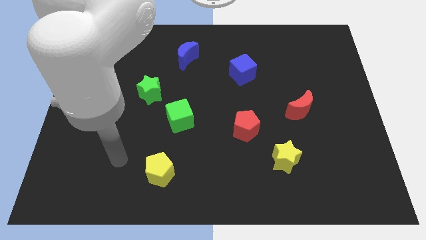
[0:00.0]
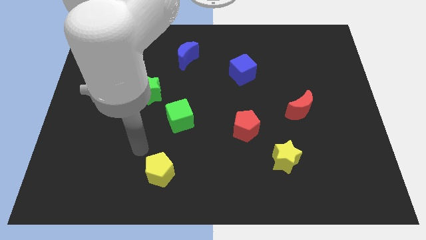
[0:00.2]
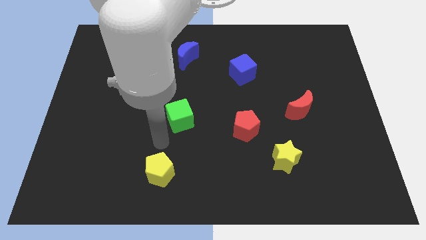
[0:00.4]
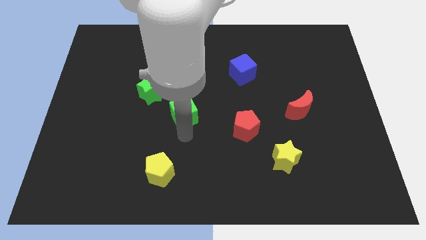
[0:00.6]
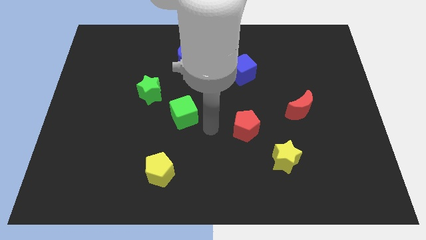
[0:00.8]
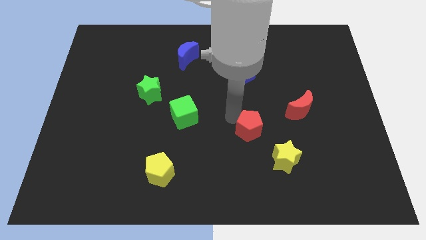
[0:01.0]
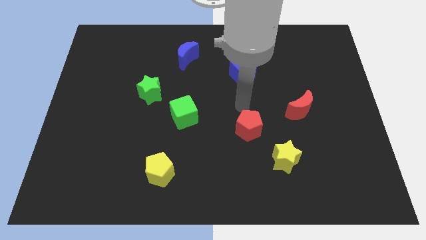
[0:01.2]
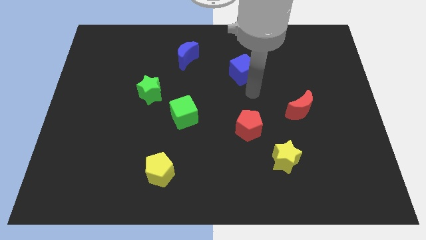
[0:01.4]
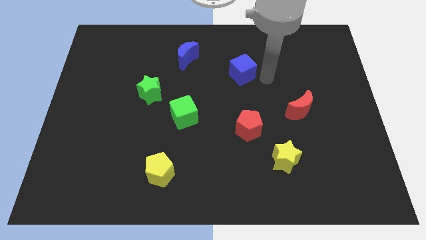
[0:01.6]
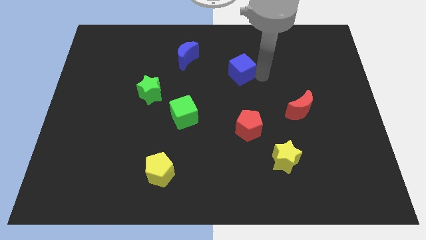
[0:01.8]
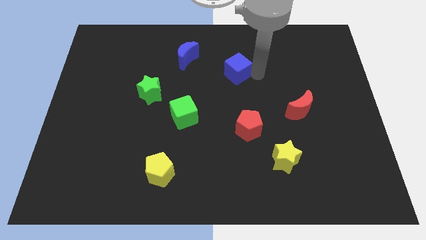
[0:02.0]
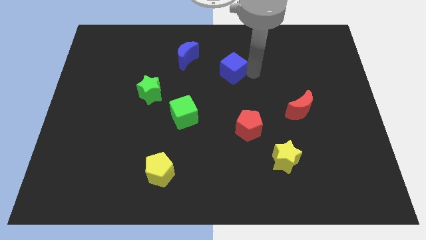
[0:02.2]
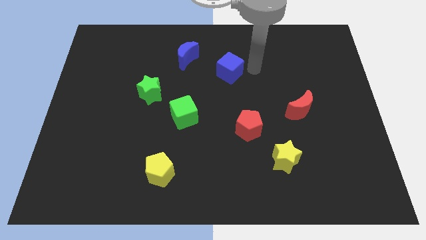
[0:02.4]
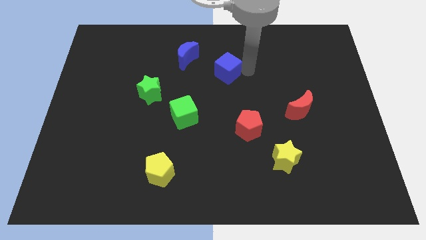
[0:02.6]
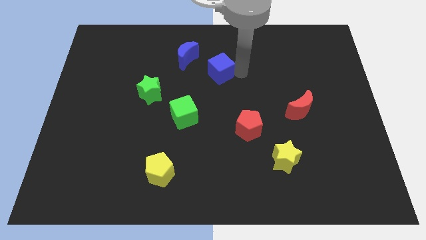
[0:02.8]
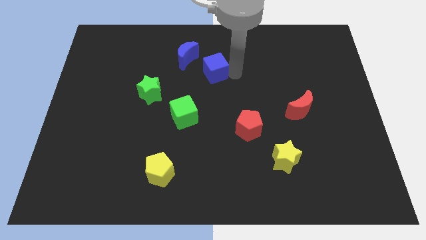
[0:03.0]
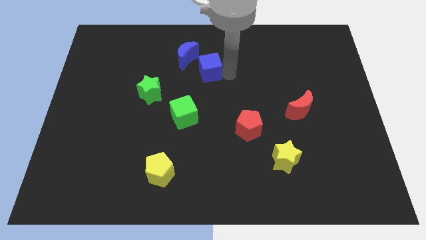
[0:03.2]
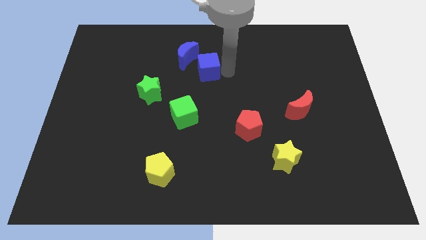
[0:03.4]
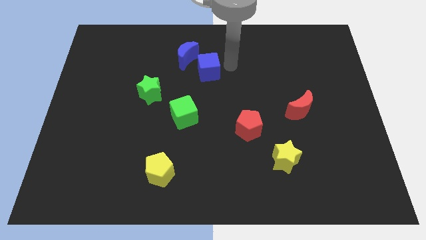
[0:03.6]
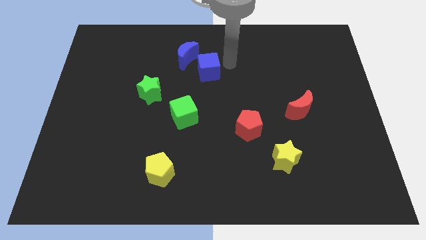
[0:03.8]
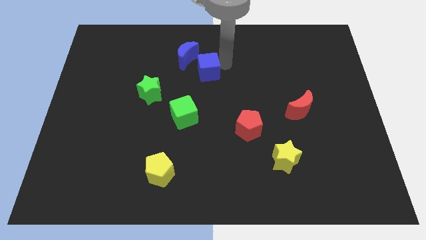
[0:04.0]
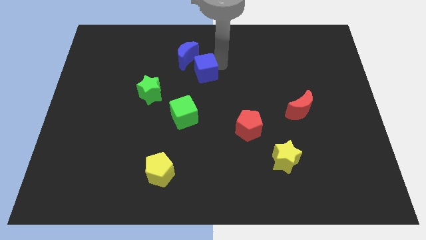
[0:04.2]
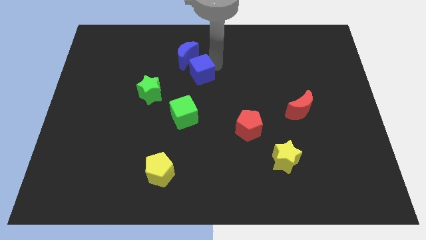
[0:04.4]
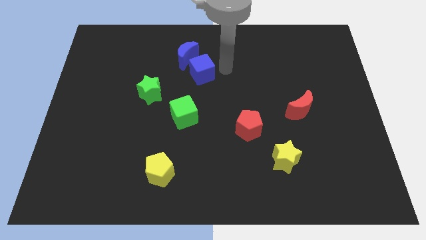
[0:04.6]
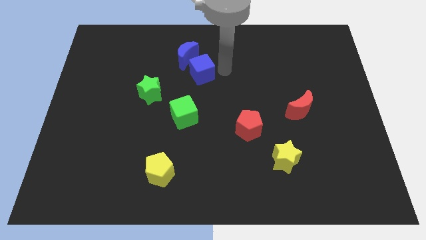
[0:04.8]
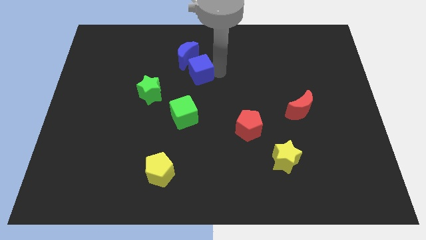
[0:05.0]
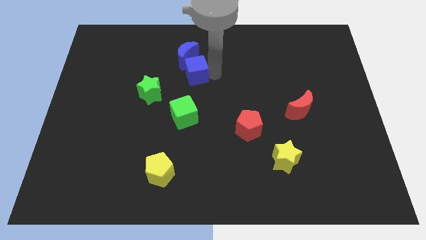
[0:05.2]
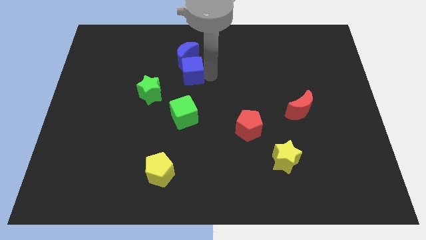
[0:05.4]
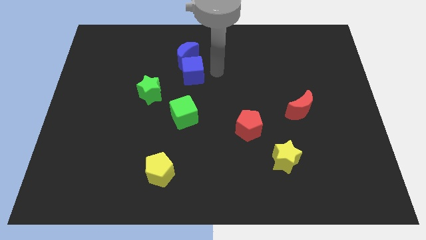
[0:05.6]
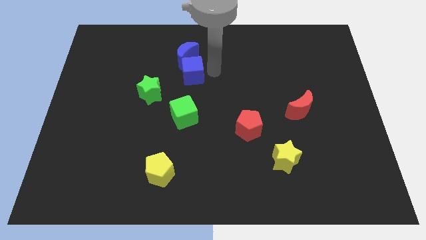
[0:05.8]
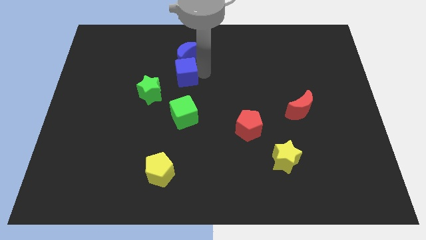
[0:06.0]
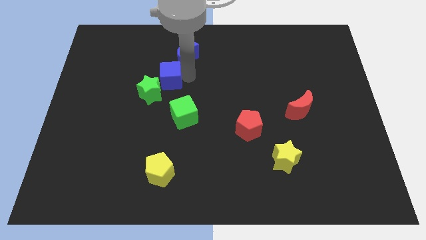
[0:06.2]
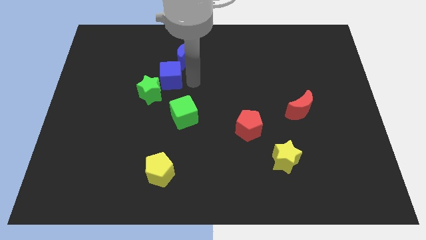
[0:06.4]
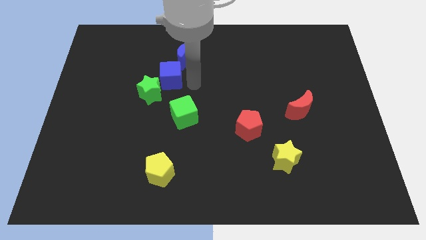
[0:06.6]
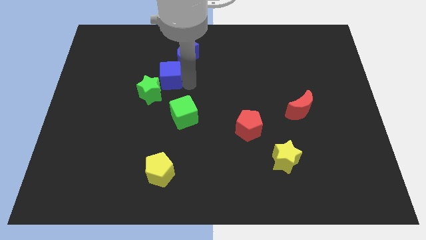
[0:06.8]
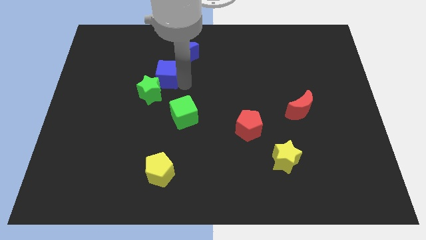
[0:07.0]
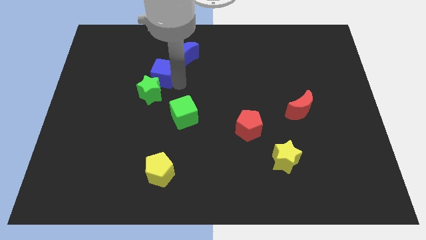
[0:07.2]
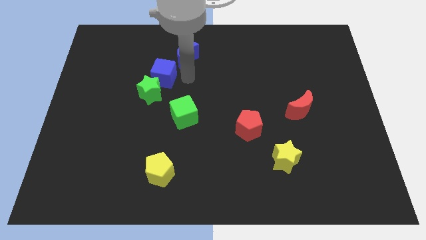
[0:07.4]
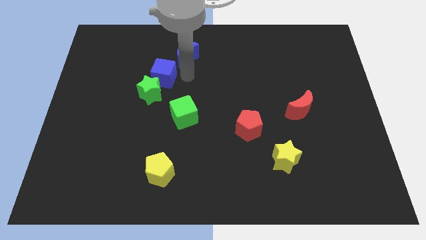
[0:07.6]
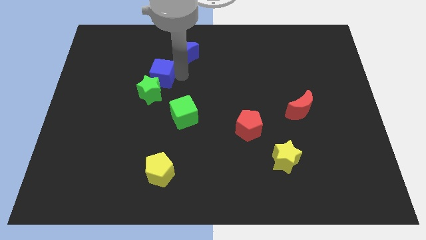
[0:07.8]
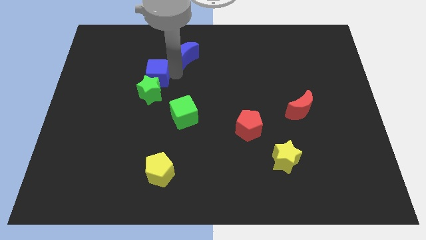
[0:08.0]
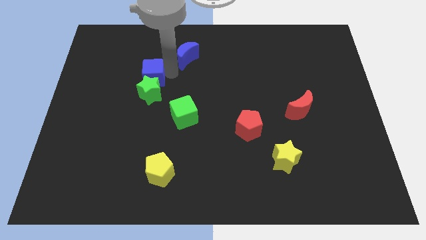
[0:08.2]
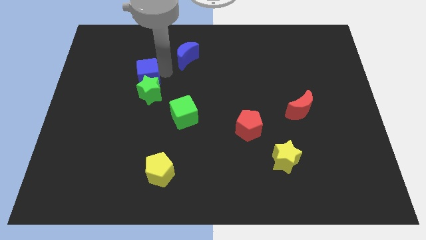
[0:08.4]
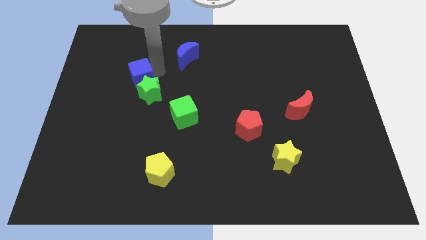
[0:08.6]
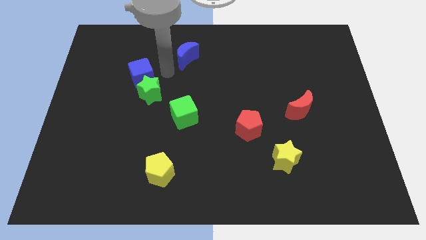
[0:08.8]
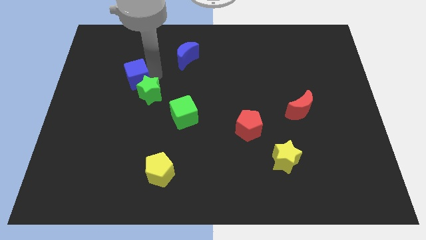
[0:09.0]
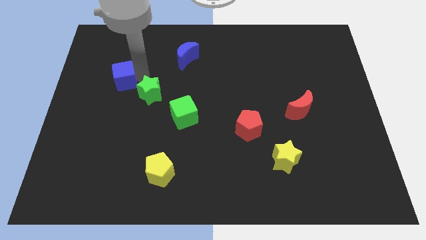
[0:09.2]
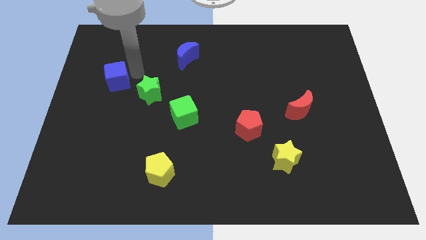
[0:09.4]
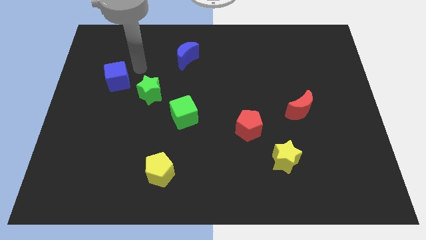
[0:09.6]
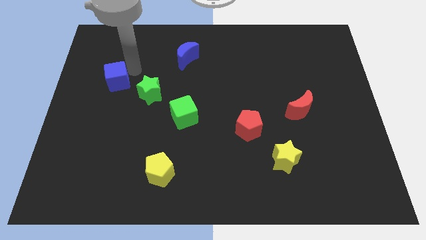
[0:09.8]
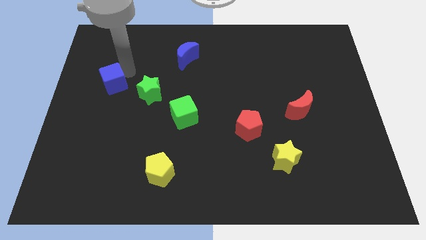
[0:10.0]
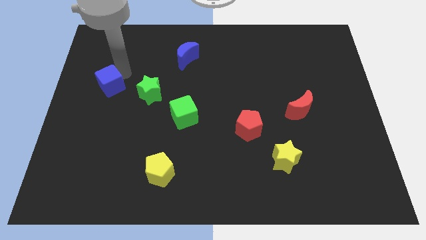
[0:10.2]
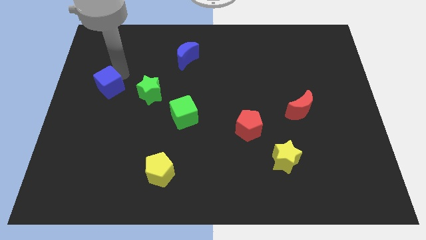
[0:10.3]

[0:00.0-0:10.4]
move the blue cube to the left side

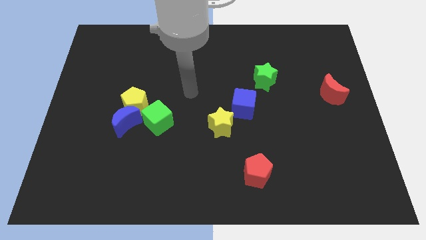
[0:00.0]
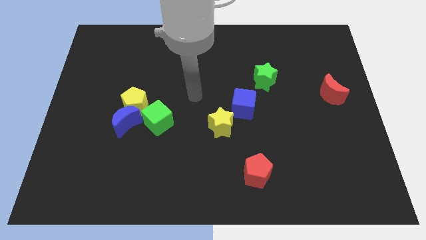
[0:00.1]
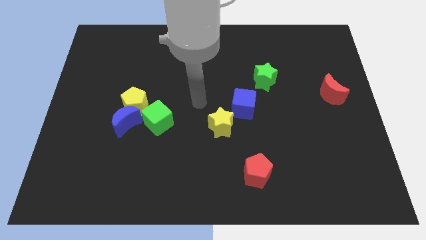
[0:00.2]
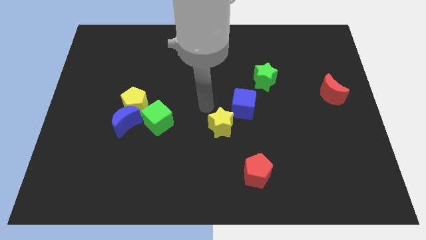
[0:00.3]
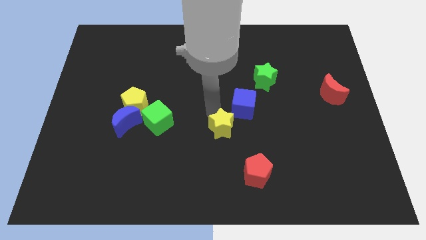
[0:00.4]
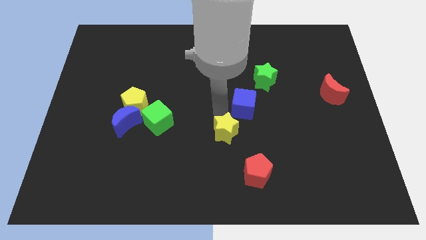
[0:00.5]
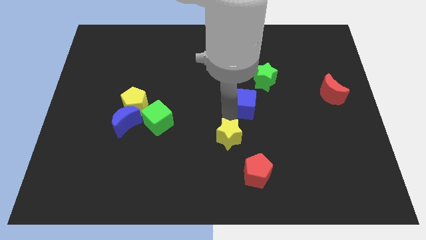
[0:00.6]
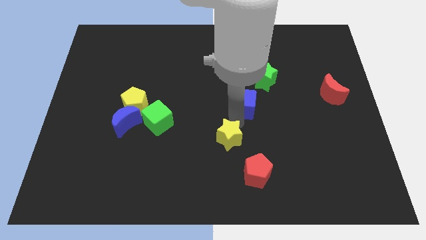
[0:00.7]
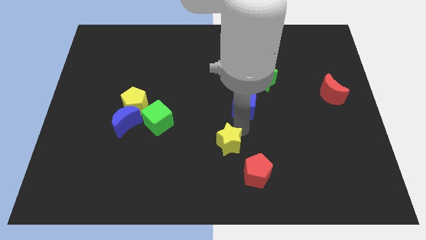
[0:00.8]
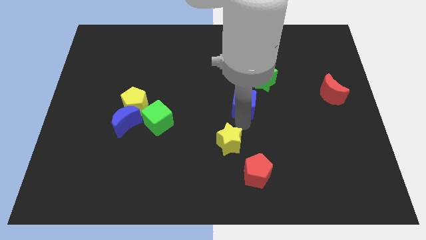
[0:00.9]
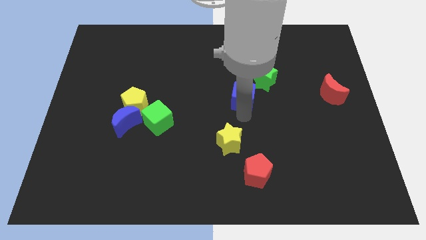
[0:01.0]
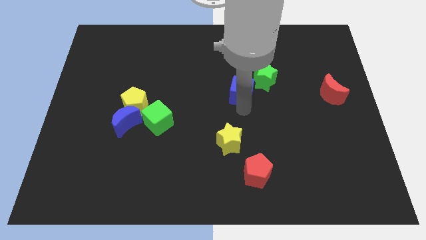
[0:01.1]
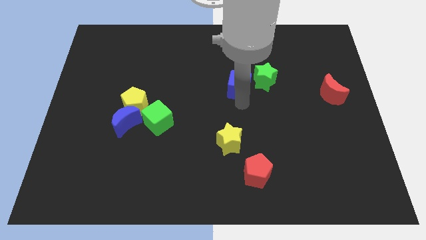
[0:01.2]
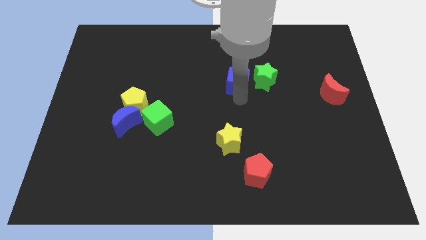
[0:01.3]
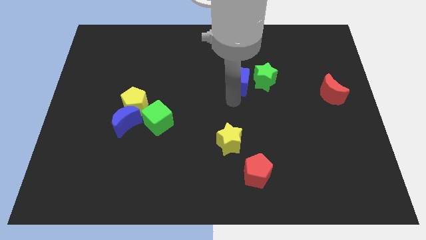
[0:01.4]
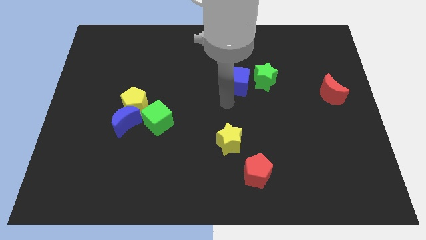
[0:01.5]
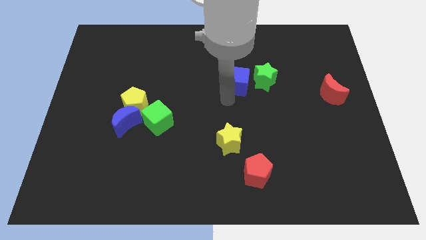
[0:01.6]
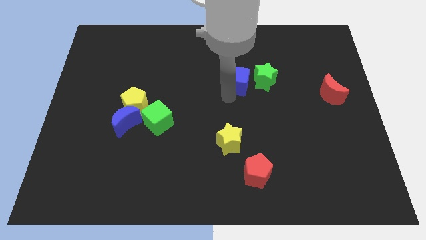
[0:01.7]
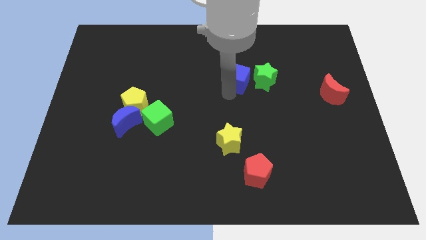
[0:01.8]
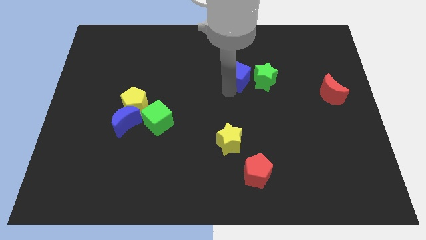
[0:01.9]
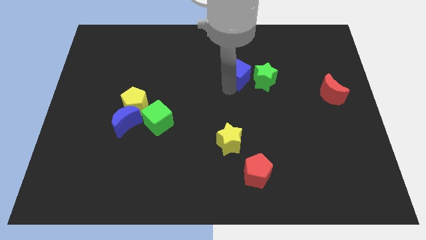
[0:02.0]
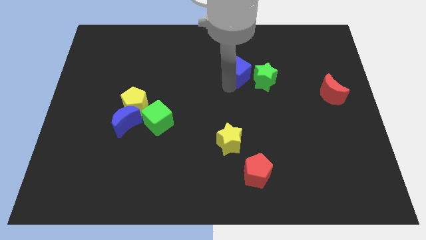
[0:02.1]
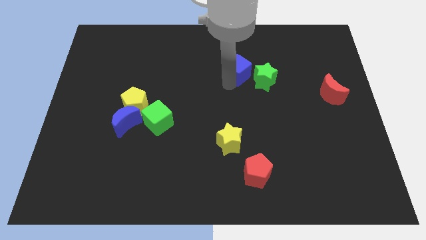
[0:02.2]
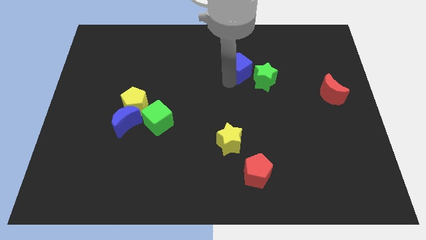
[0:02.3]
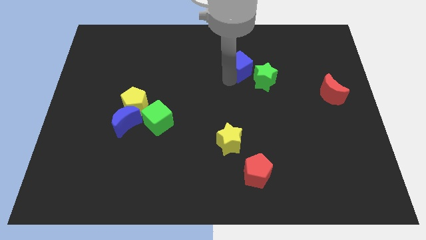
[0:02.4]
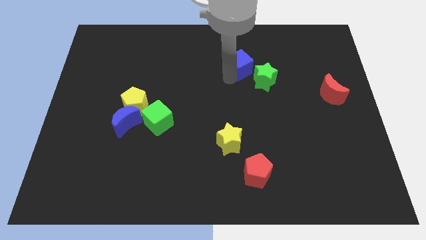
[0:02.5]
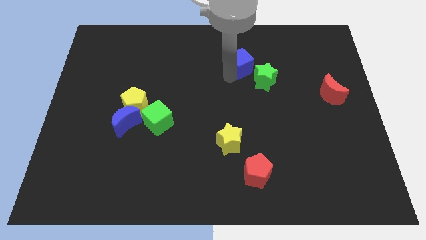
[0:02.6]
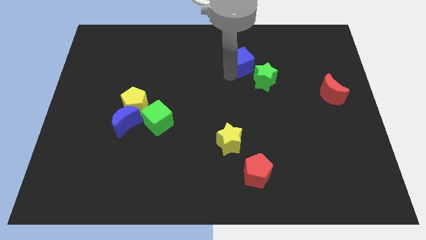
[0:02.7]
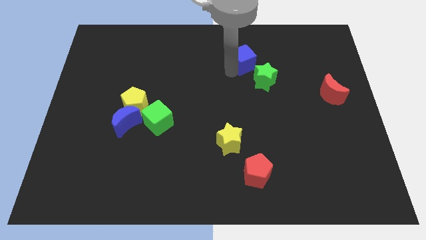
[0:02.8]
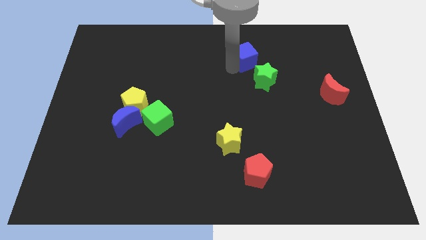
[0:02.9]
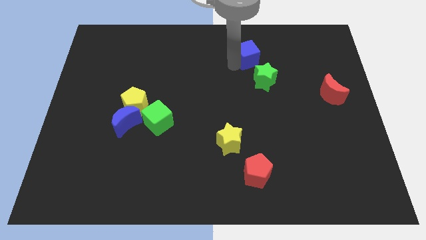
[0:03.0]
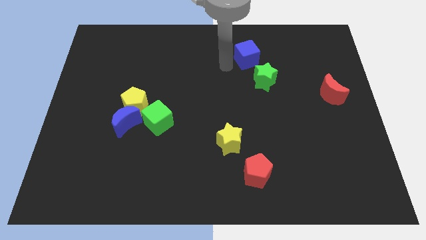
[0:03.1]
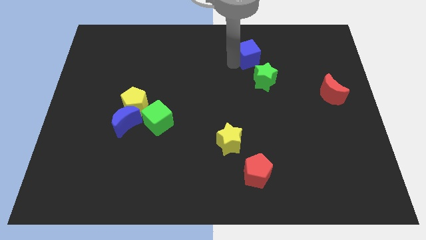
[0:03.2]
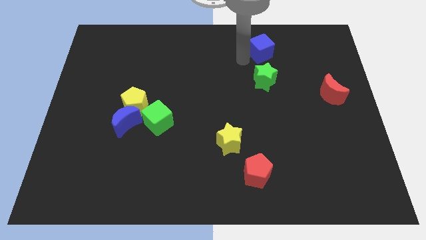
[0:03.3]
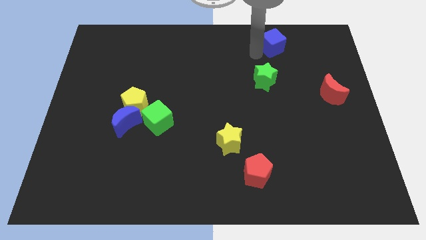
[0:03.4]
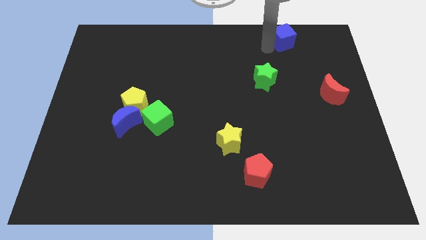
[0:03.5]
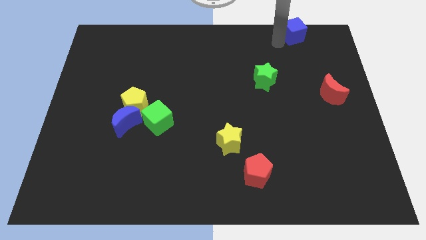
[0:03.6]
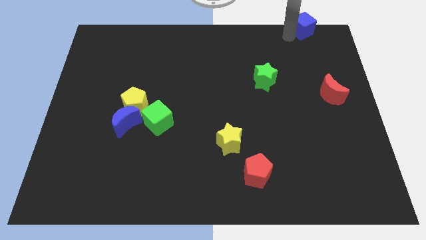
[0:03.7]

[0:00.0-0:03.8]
push the blue cube to the top right
